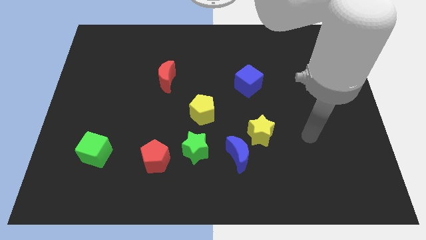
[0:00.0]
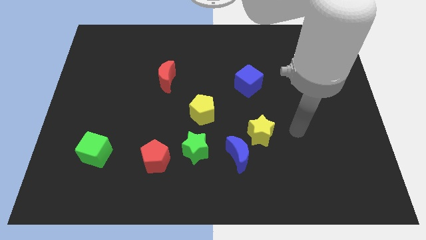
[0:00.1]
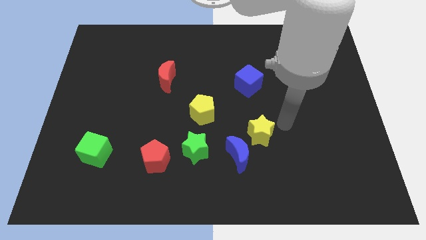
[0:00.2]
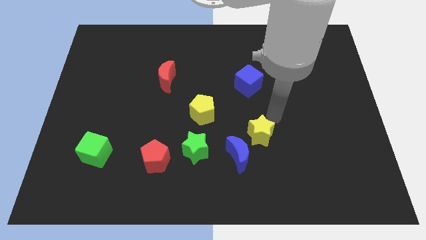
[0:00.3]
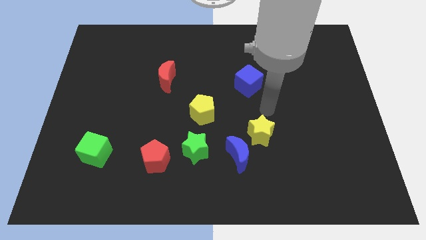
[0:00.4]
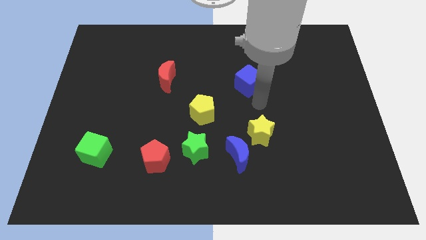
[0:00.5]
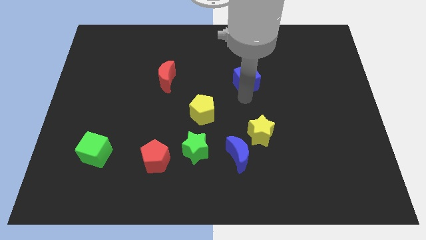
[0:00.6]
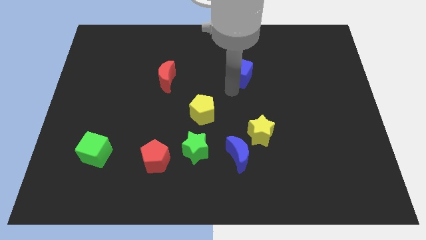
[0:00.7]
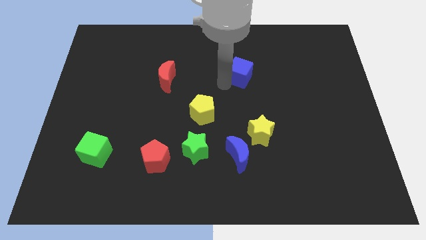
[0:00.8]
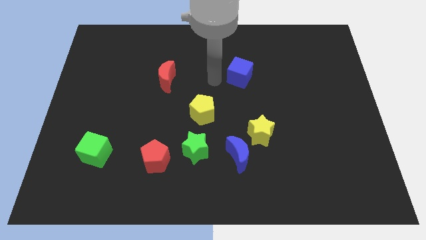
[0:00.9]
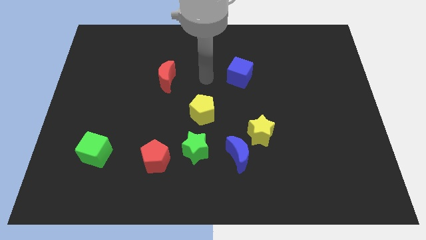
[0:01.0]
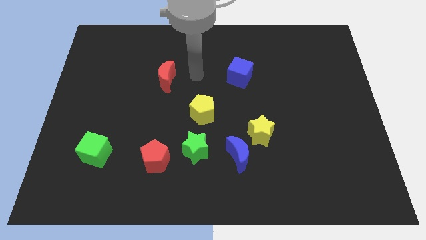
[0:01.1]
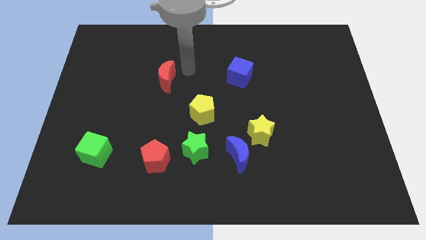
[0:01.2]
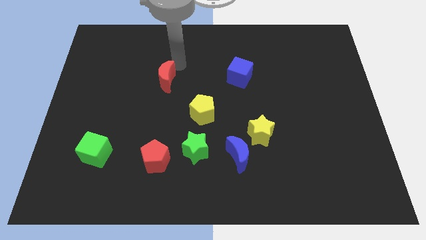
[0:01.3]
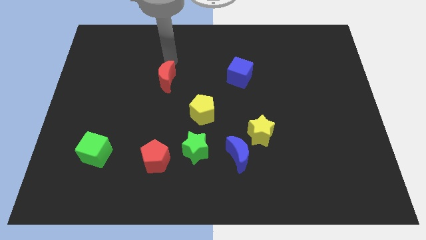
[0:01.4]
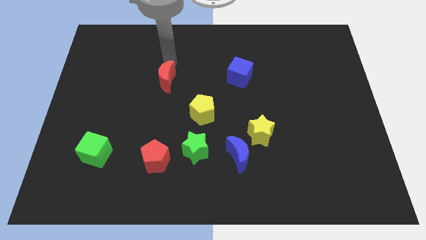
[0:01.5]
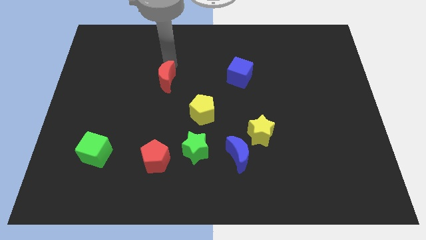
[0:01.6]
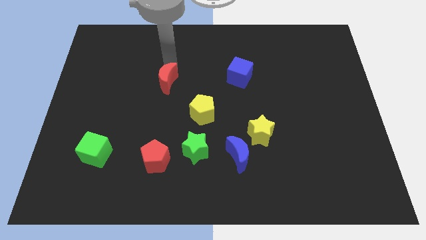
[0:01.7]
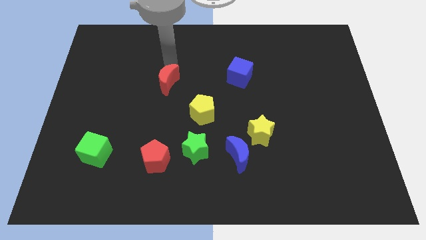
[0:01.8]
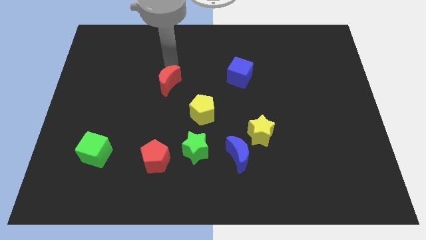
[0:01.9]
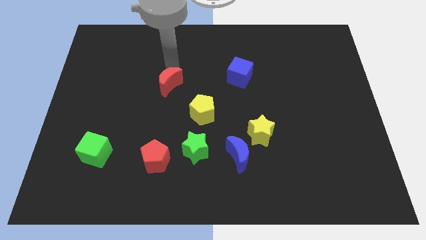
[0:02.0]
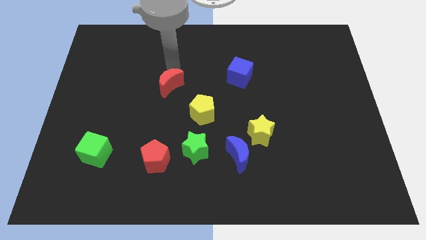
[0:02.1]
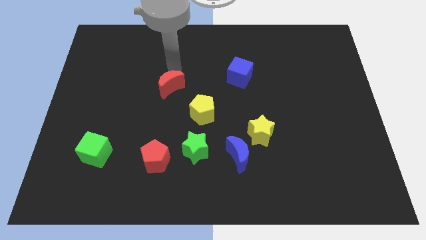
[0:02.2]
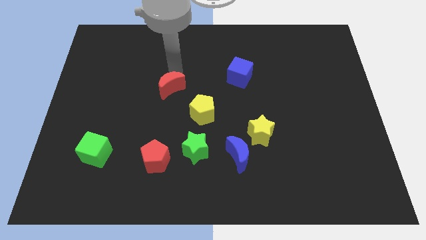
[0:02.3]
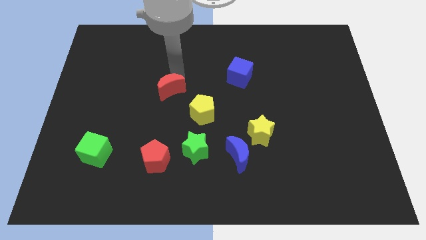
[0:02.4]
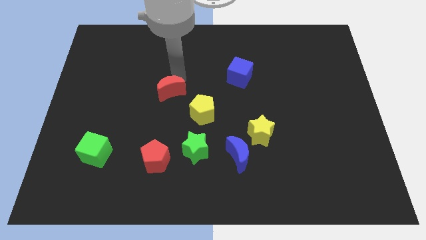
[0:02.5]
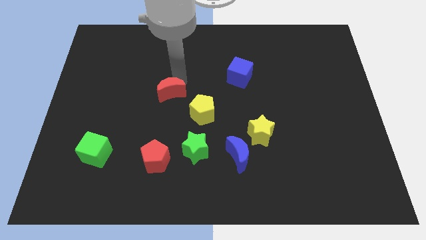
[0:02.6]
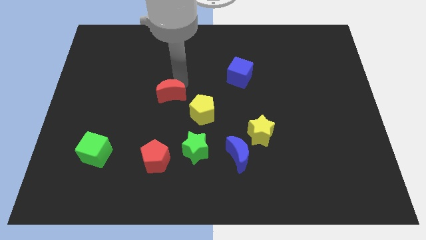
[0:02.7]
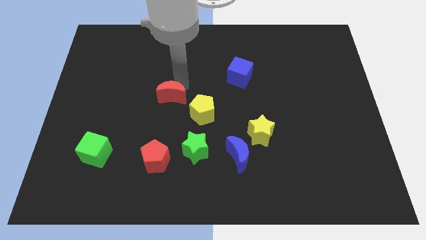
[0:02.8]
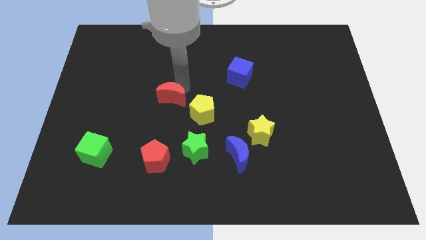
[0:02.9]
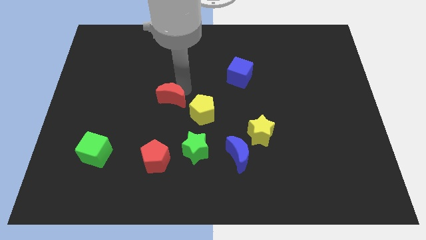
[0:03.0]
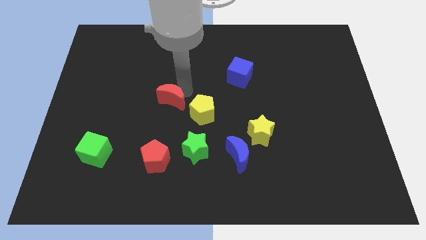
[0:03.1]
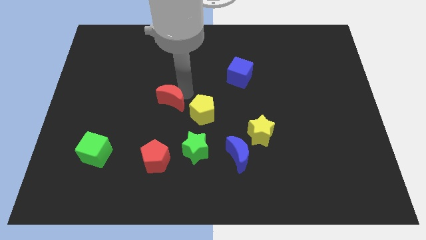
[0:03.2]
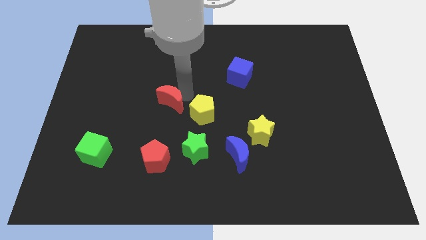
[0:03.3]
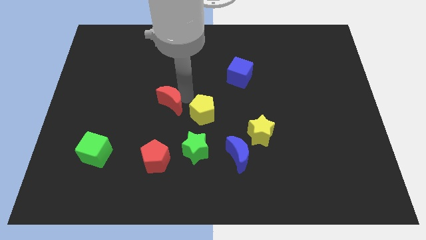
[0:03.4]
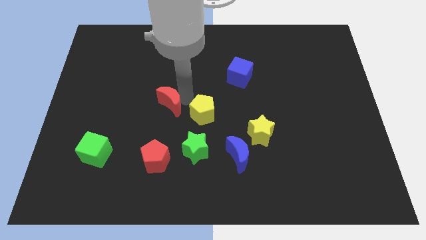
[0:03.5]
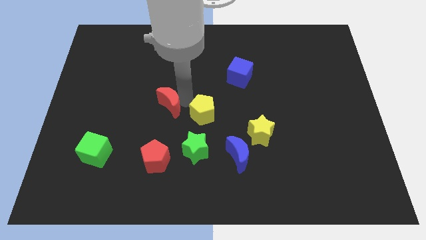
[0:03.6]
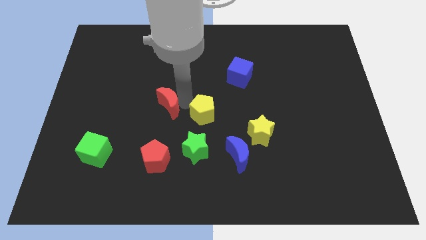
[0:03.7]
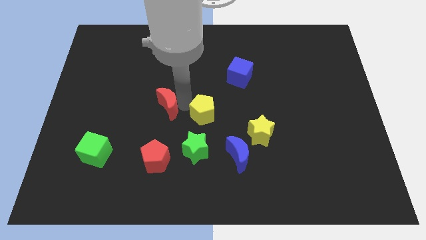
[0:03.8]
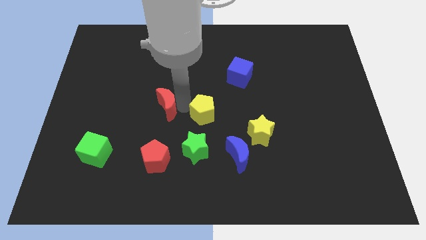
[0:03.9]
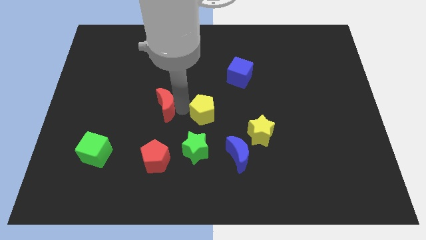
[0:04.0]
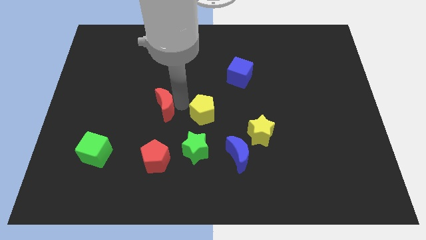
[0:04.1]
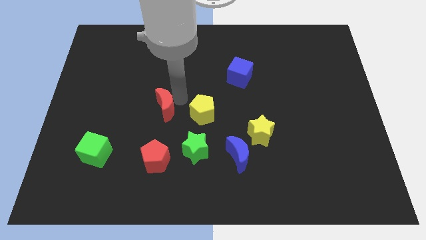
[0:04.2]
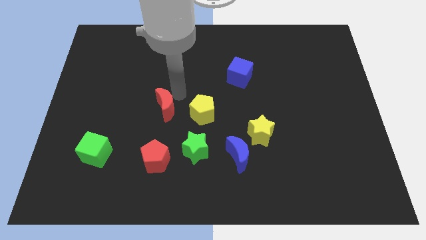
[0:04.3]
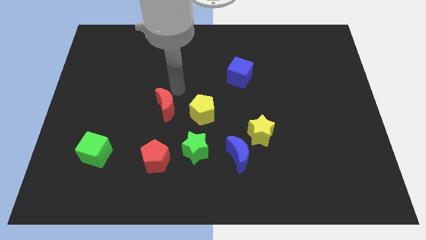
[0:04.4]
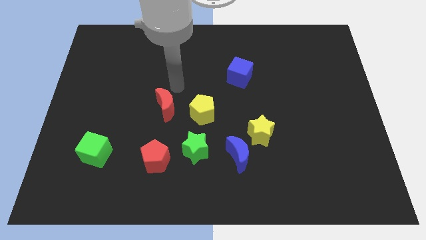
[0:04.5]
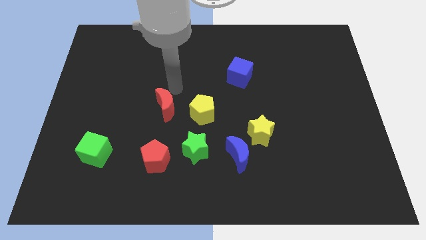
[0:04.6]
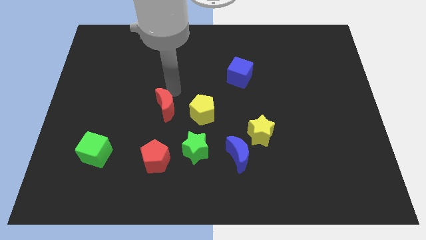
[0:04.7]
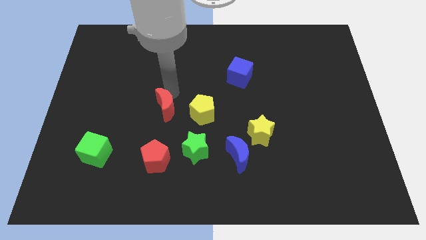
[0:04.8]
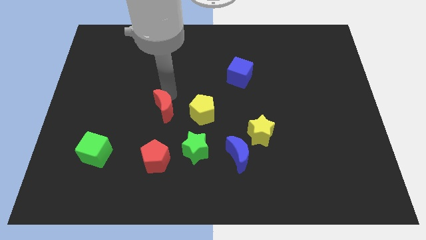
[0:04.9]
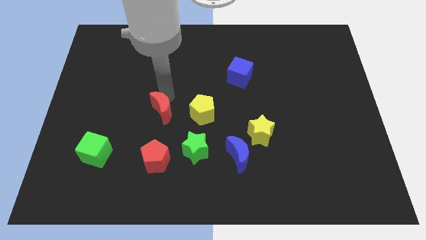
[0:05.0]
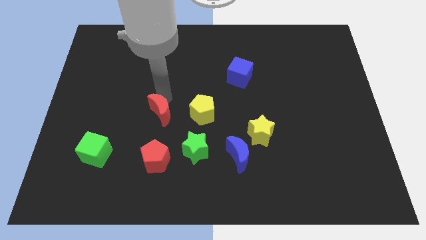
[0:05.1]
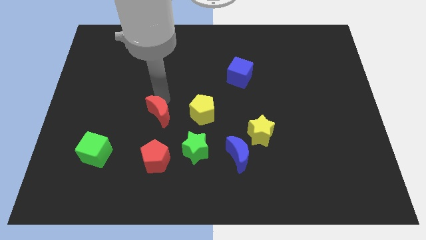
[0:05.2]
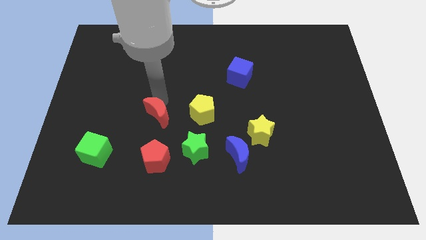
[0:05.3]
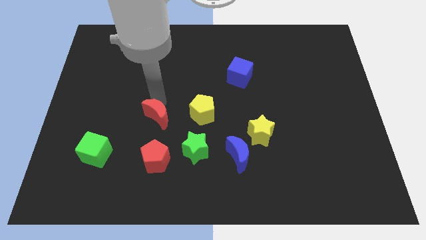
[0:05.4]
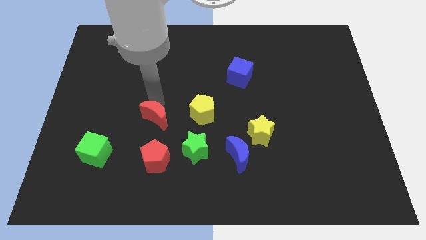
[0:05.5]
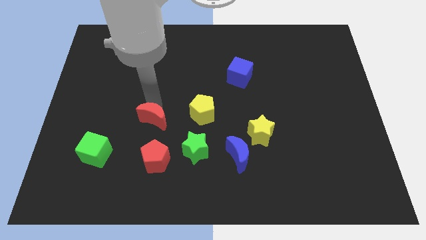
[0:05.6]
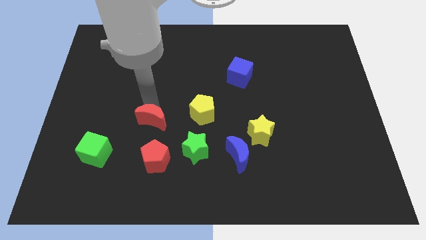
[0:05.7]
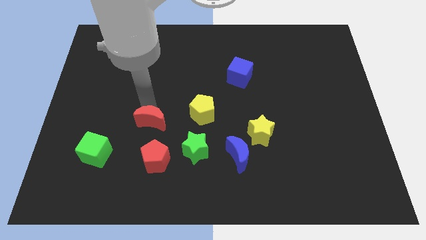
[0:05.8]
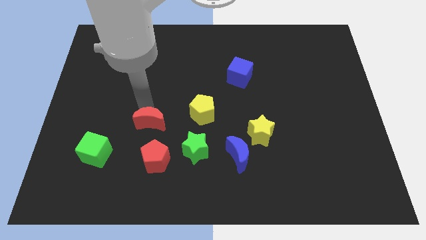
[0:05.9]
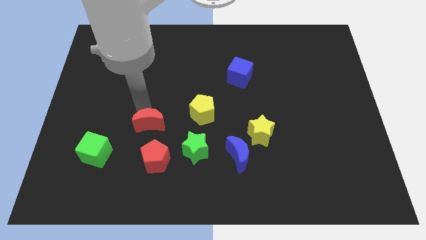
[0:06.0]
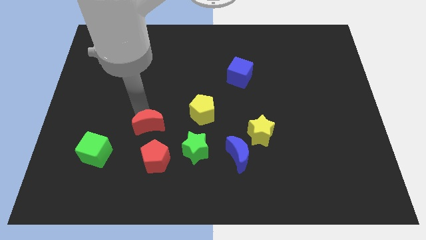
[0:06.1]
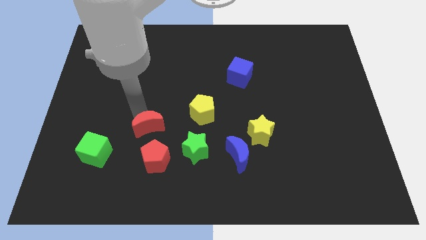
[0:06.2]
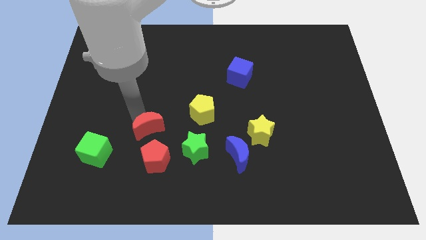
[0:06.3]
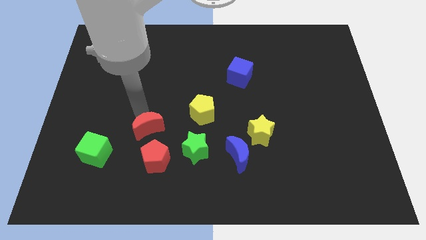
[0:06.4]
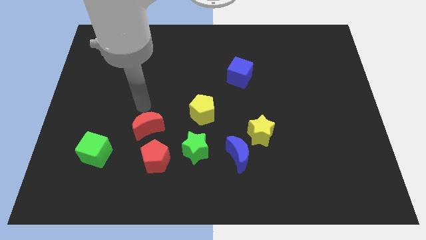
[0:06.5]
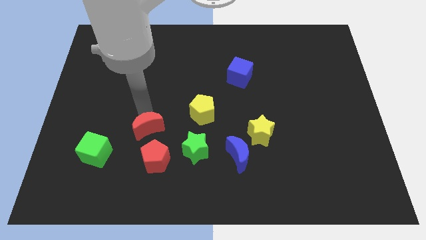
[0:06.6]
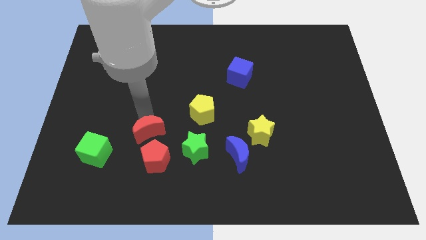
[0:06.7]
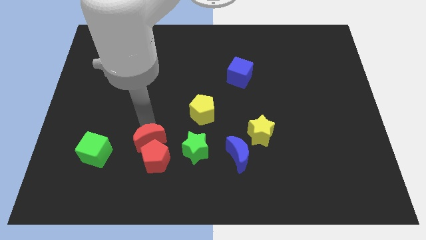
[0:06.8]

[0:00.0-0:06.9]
push the red moon towards the red pentagon

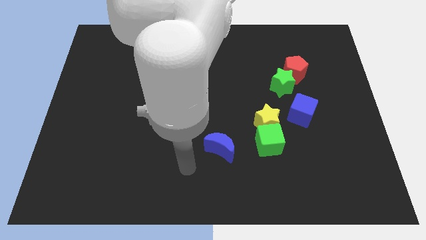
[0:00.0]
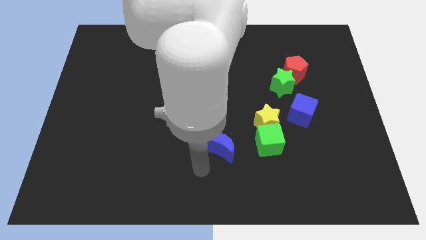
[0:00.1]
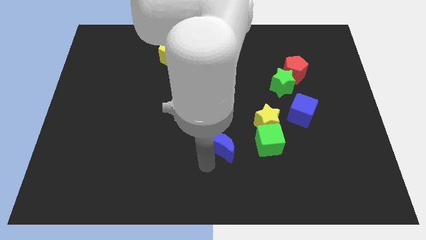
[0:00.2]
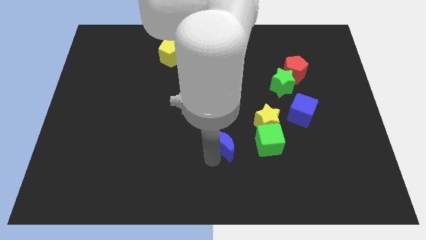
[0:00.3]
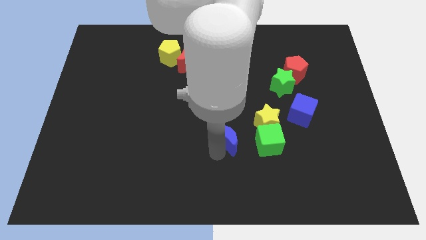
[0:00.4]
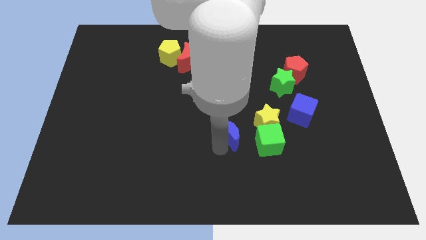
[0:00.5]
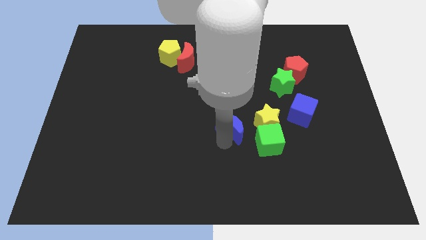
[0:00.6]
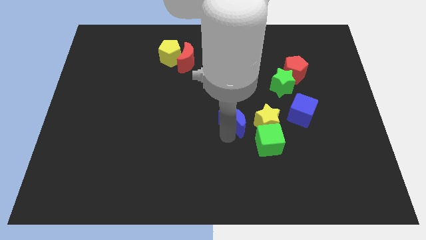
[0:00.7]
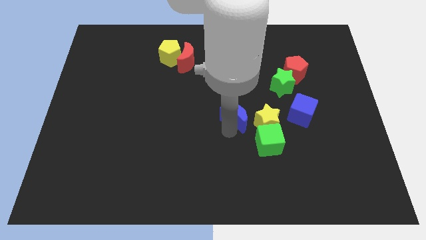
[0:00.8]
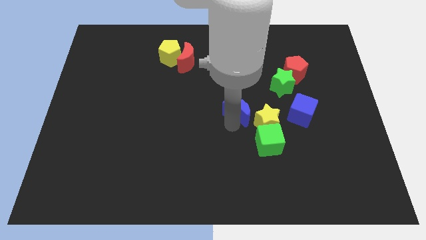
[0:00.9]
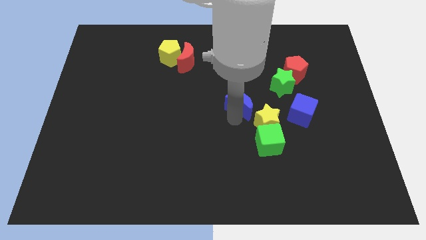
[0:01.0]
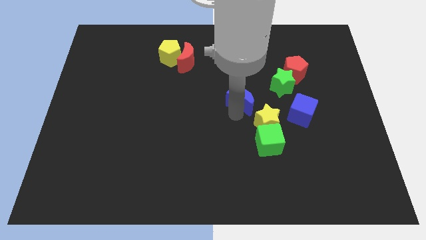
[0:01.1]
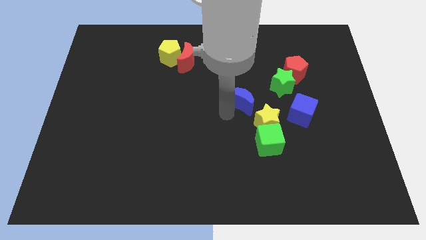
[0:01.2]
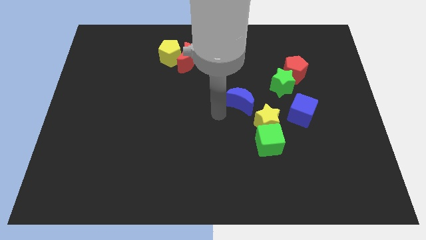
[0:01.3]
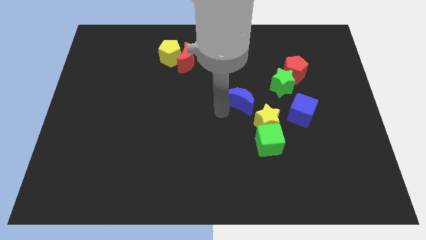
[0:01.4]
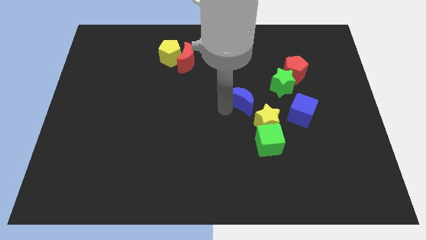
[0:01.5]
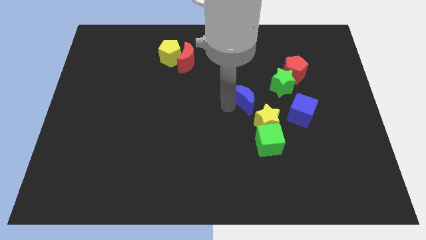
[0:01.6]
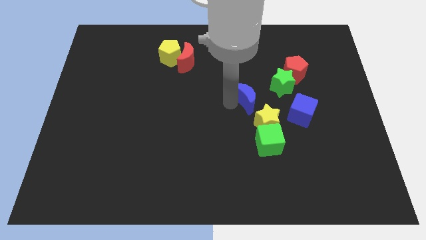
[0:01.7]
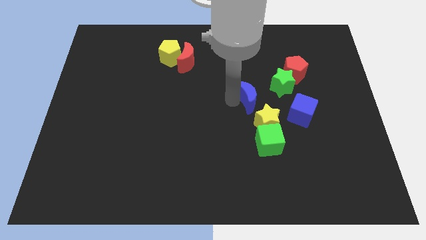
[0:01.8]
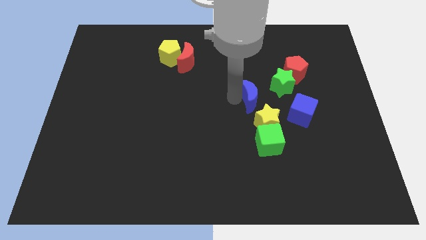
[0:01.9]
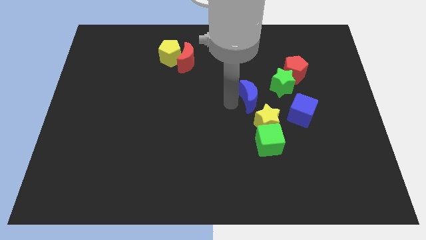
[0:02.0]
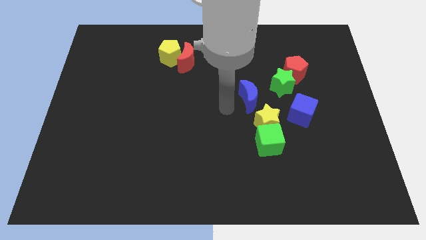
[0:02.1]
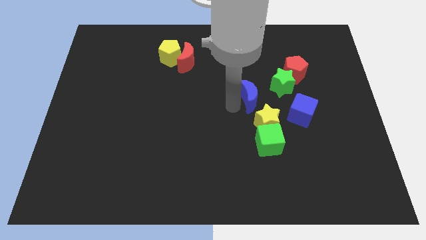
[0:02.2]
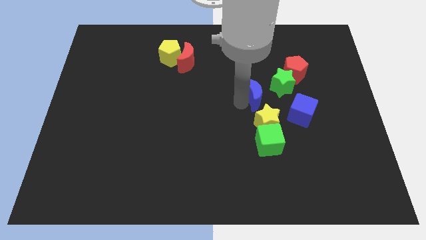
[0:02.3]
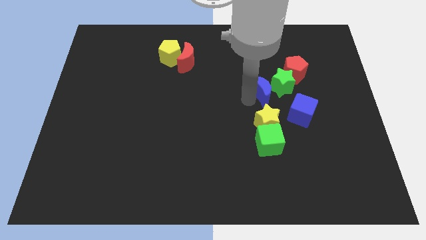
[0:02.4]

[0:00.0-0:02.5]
push the blue moon towards the green star
